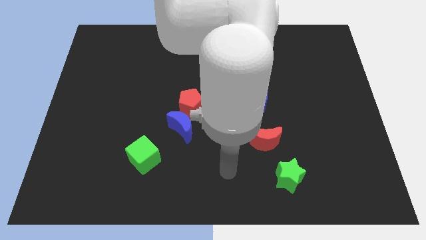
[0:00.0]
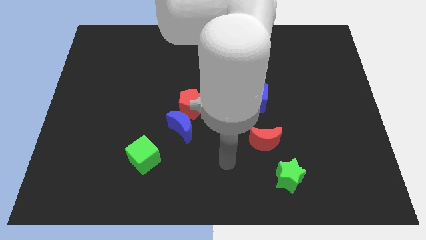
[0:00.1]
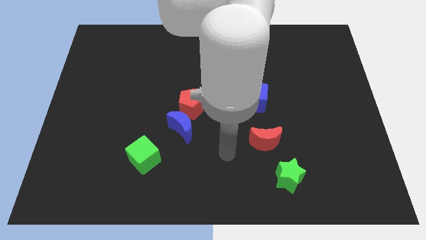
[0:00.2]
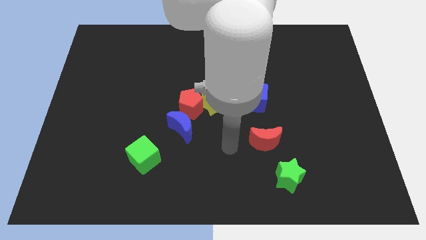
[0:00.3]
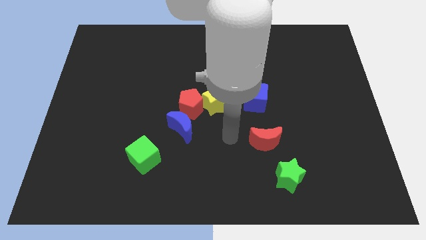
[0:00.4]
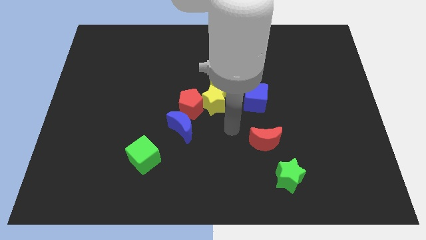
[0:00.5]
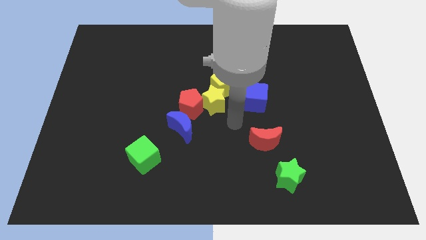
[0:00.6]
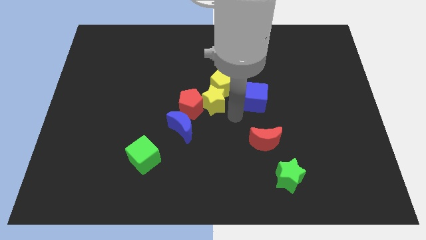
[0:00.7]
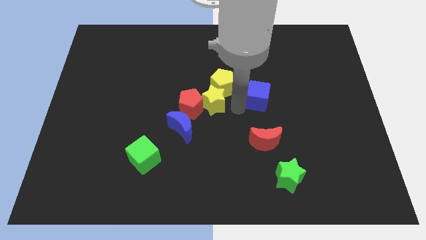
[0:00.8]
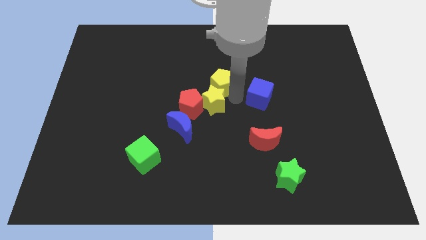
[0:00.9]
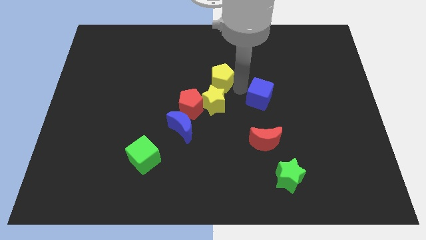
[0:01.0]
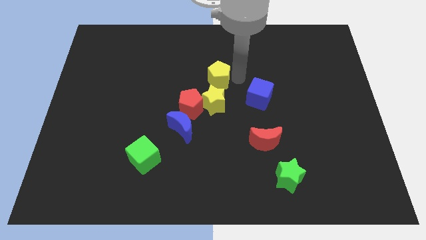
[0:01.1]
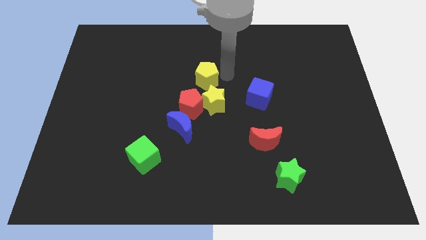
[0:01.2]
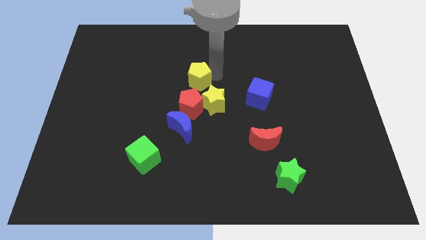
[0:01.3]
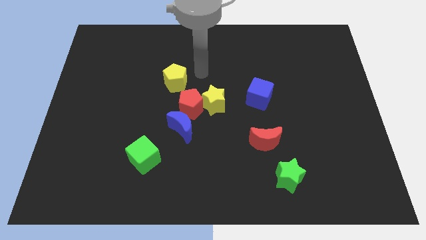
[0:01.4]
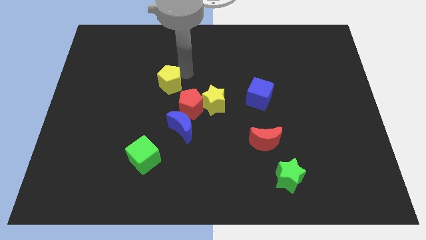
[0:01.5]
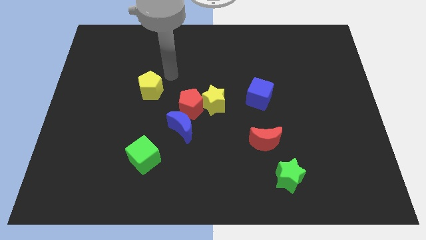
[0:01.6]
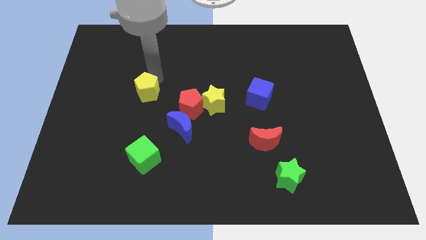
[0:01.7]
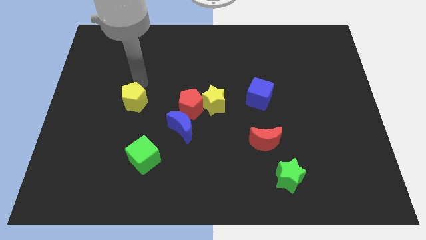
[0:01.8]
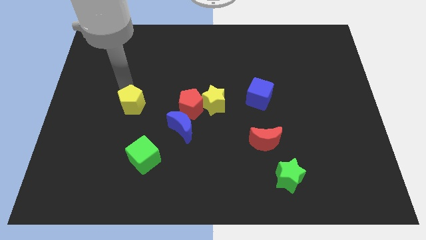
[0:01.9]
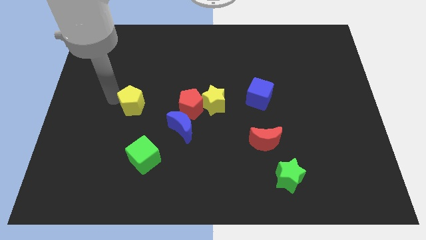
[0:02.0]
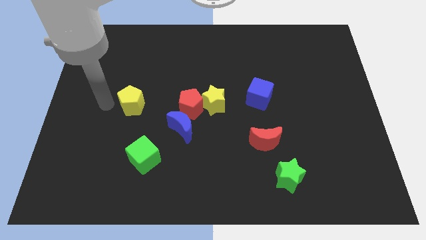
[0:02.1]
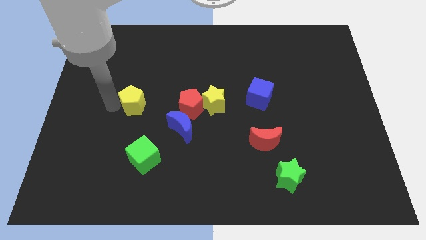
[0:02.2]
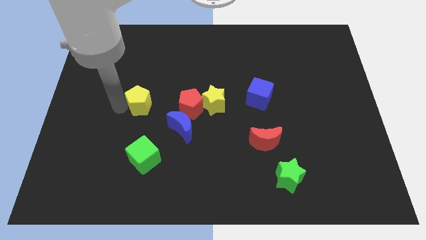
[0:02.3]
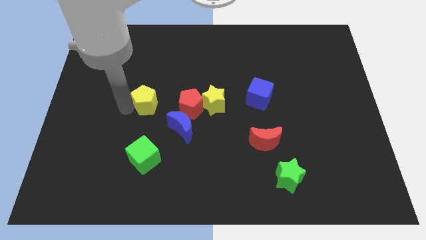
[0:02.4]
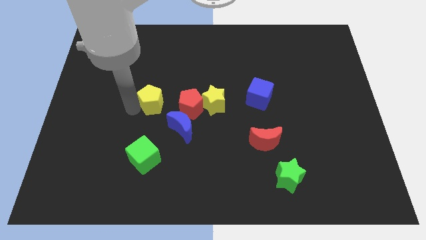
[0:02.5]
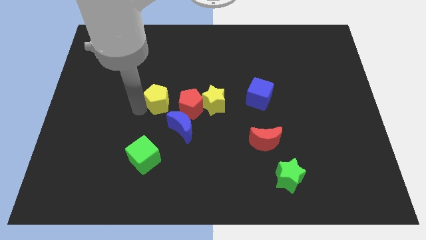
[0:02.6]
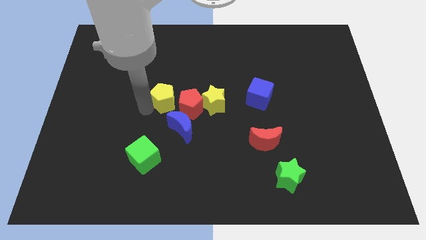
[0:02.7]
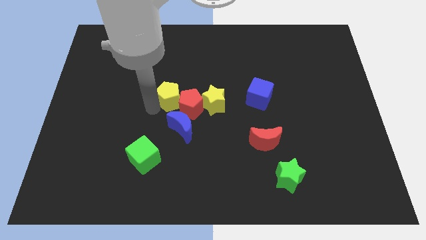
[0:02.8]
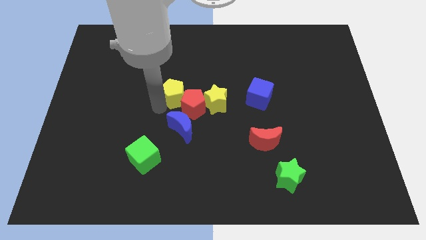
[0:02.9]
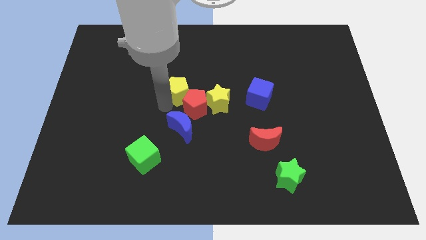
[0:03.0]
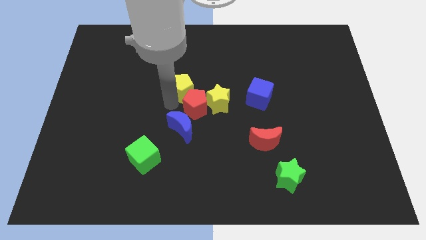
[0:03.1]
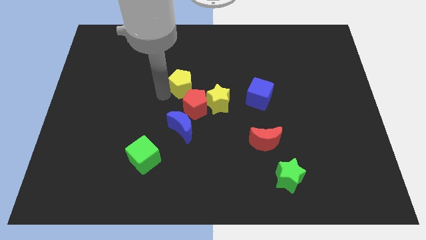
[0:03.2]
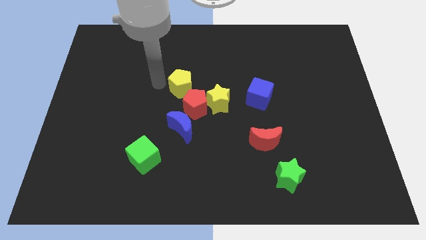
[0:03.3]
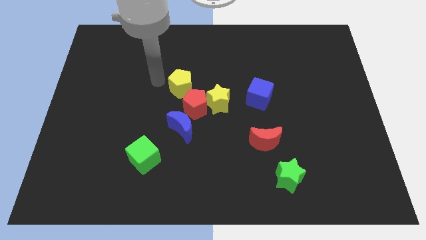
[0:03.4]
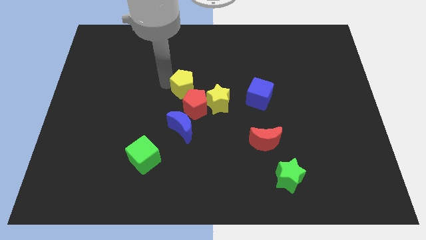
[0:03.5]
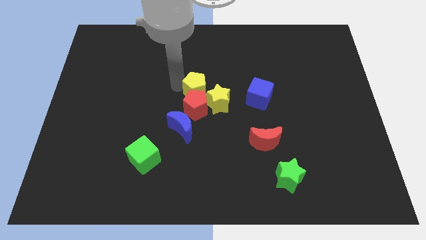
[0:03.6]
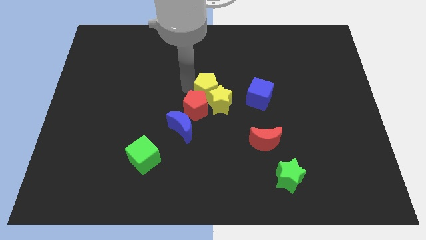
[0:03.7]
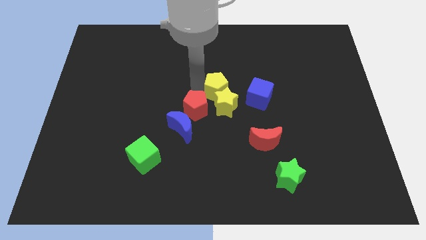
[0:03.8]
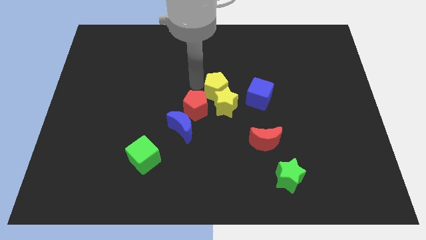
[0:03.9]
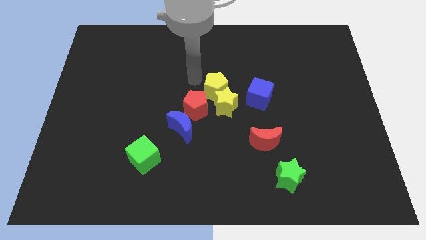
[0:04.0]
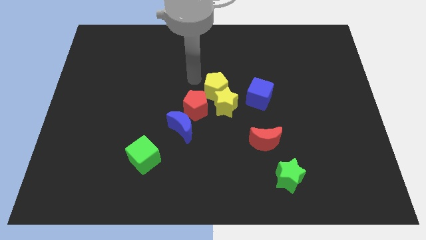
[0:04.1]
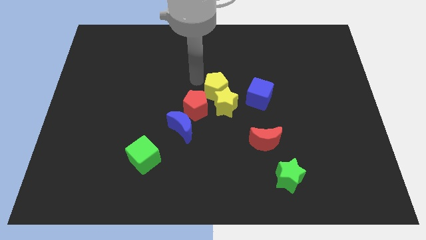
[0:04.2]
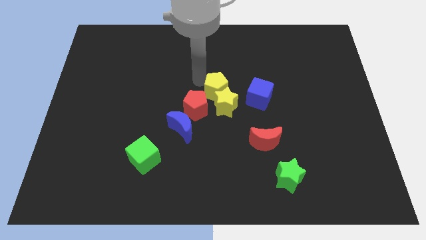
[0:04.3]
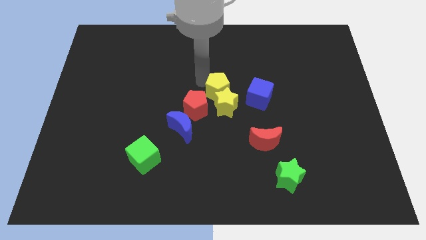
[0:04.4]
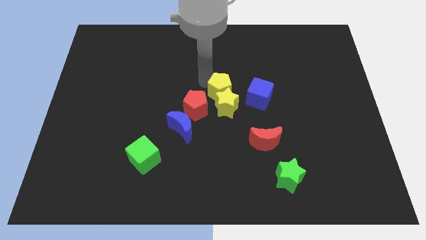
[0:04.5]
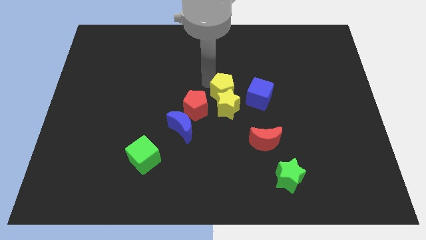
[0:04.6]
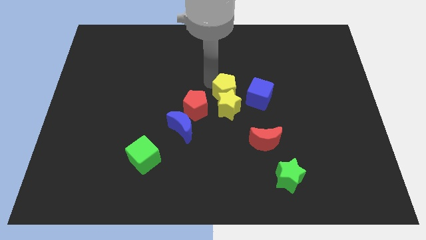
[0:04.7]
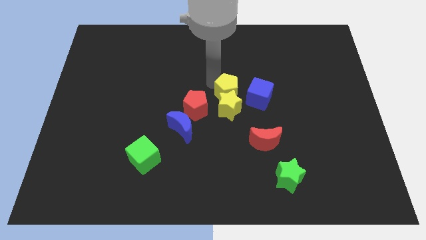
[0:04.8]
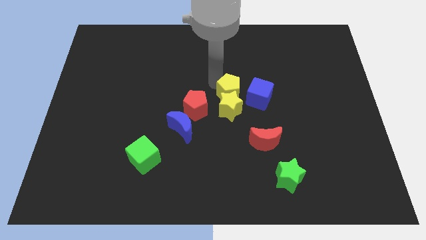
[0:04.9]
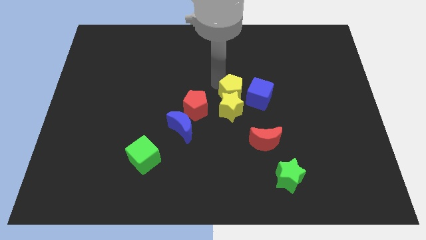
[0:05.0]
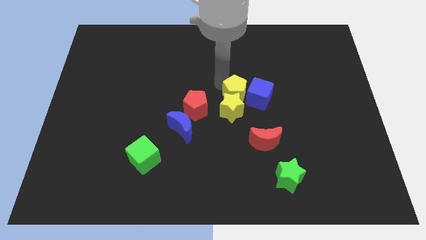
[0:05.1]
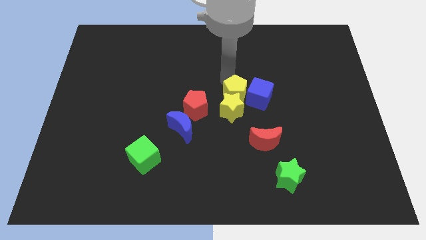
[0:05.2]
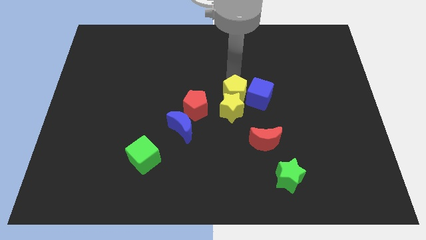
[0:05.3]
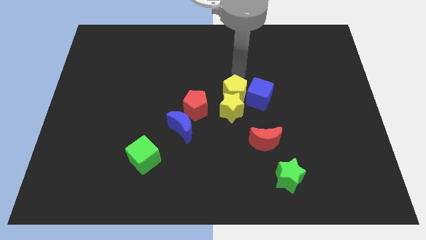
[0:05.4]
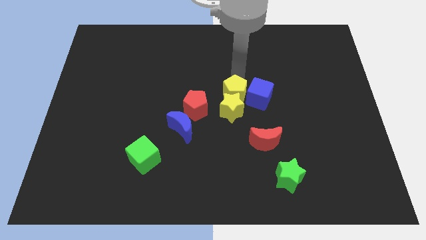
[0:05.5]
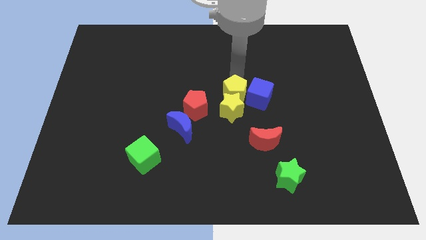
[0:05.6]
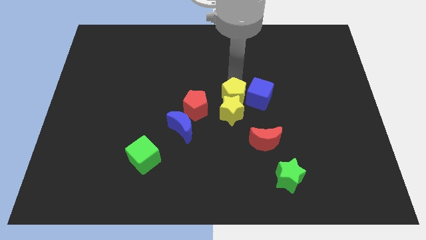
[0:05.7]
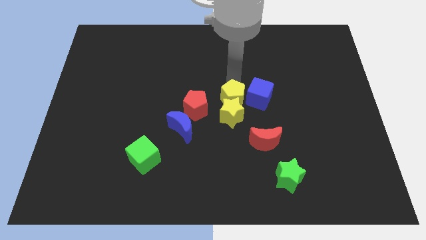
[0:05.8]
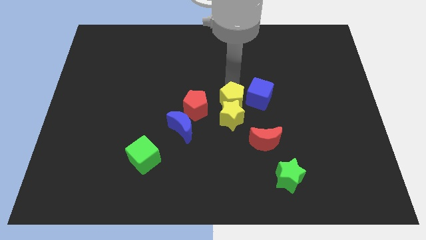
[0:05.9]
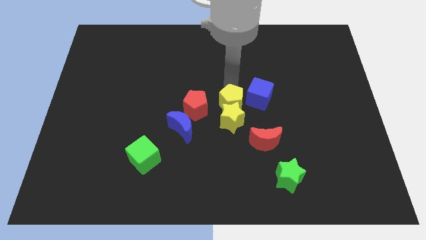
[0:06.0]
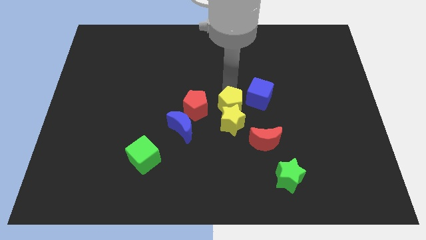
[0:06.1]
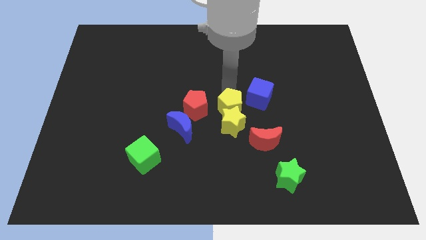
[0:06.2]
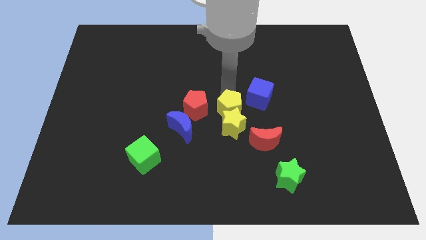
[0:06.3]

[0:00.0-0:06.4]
push the yellow pentagon a bit down

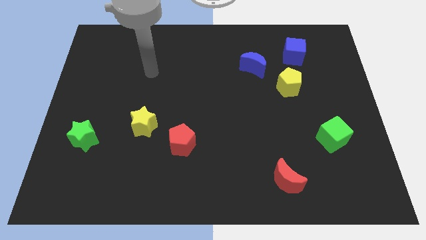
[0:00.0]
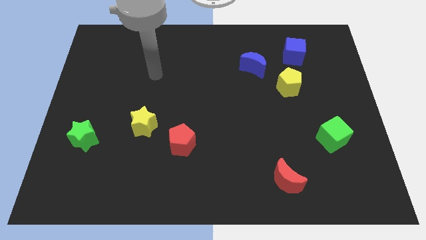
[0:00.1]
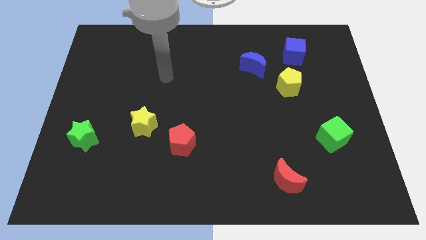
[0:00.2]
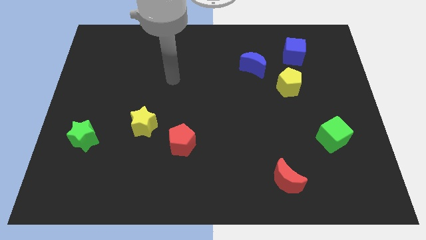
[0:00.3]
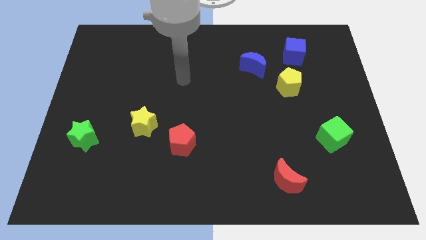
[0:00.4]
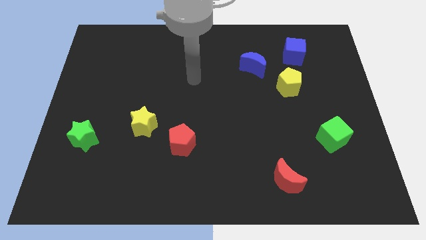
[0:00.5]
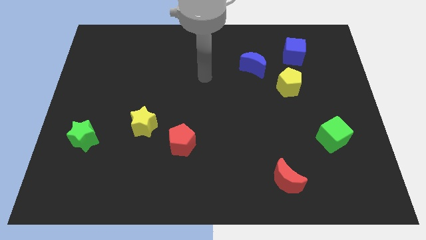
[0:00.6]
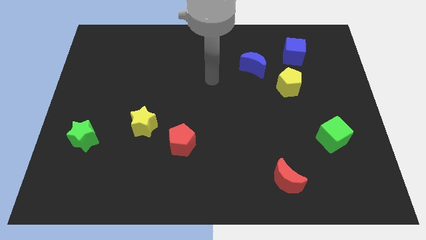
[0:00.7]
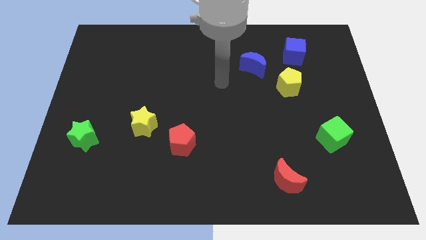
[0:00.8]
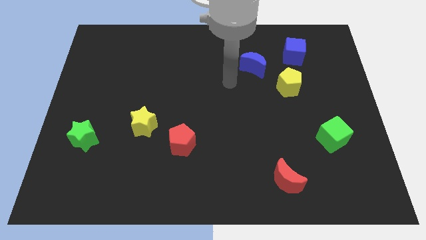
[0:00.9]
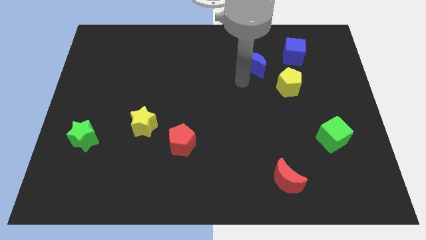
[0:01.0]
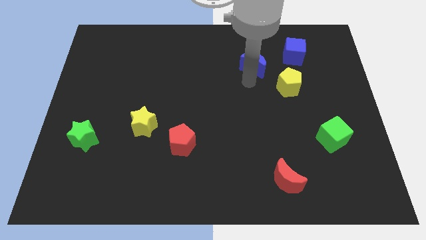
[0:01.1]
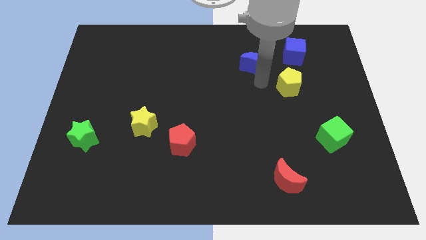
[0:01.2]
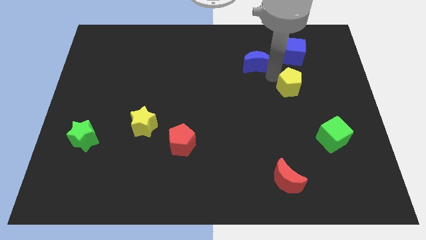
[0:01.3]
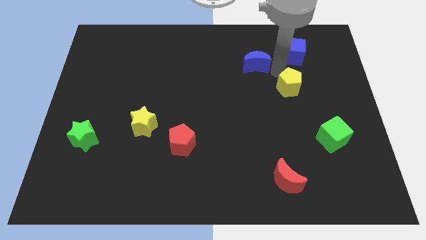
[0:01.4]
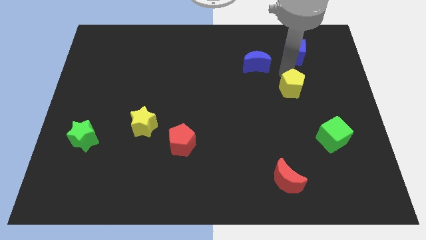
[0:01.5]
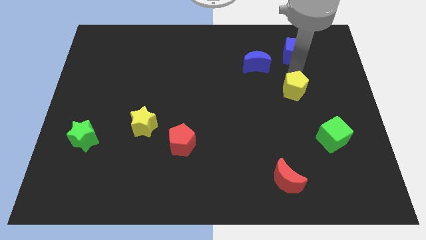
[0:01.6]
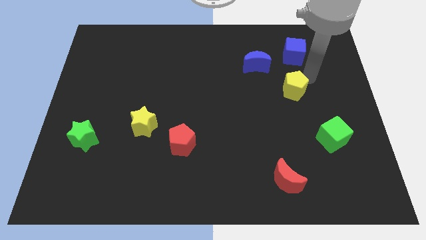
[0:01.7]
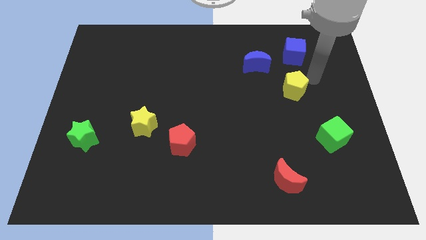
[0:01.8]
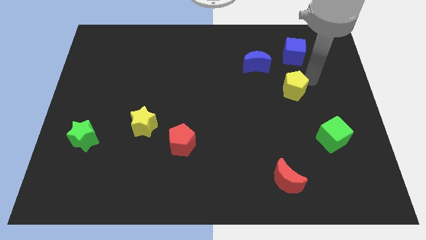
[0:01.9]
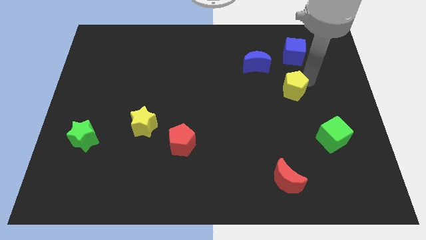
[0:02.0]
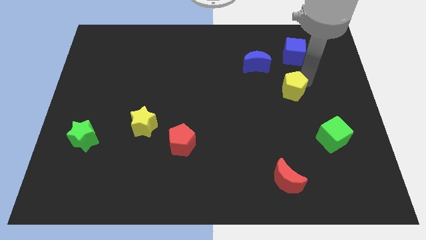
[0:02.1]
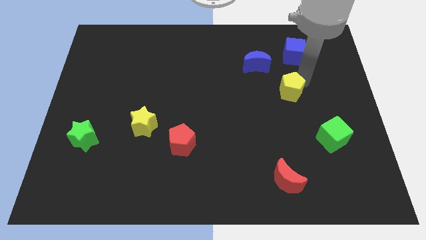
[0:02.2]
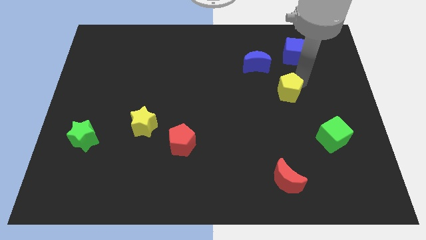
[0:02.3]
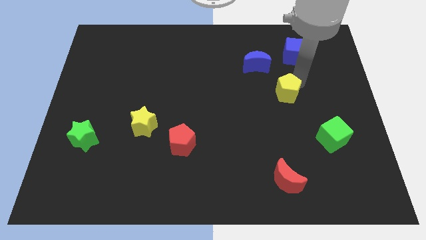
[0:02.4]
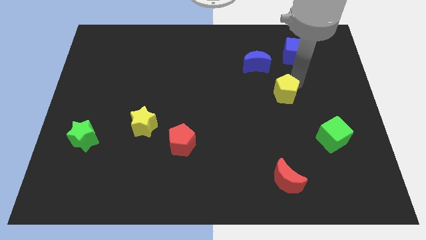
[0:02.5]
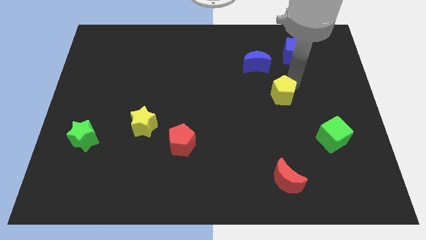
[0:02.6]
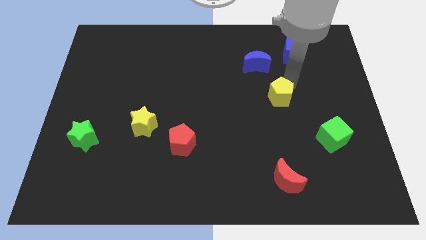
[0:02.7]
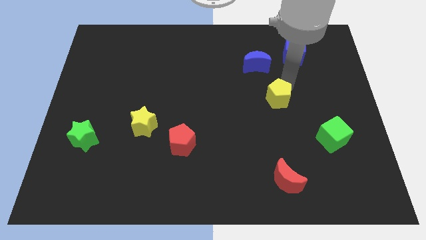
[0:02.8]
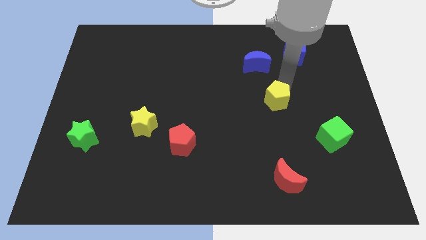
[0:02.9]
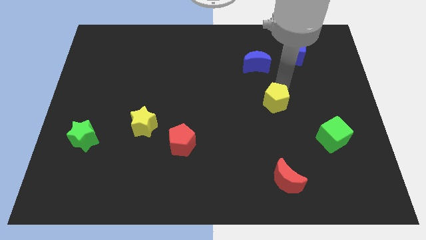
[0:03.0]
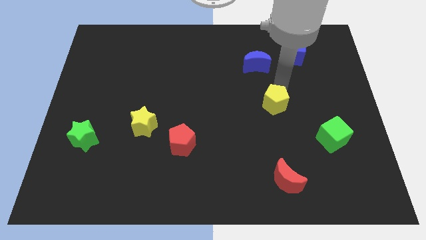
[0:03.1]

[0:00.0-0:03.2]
slightly push the yellow pentagon down and left diagonally
